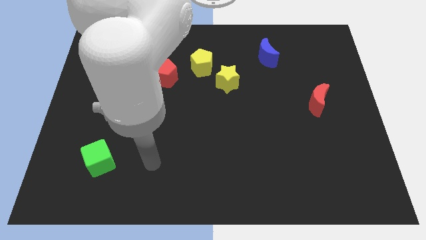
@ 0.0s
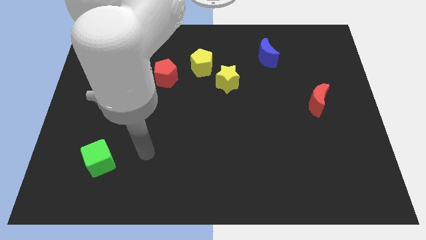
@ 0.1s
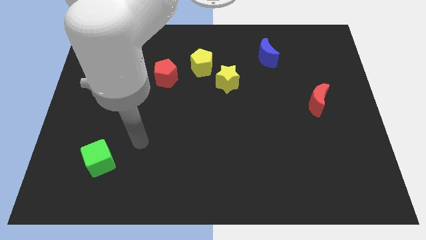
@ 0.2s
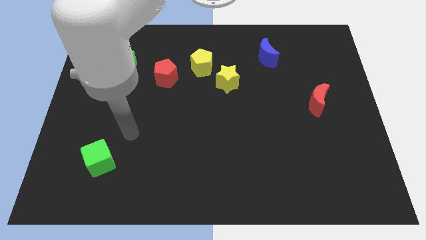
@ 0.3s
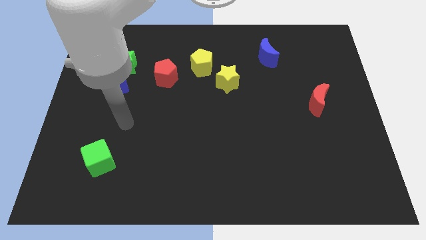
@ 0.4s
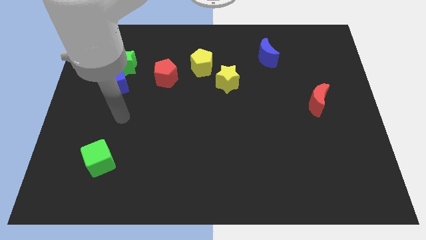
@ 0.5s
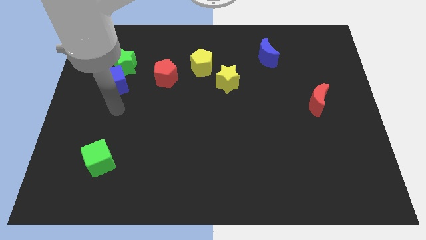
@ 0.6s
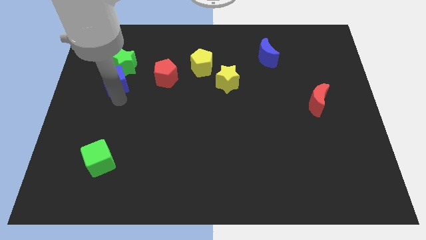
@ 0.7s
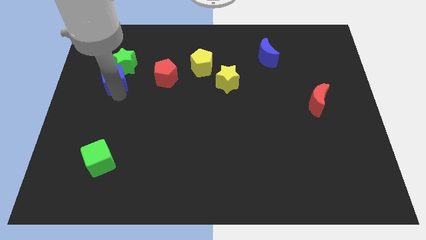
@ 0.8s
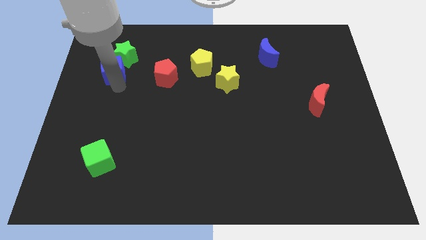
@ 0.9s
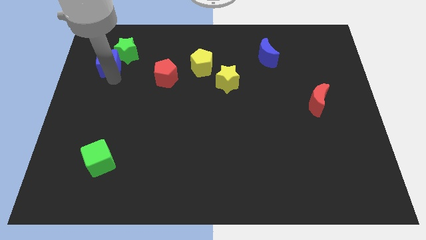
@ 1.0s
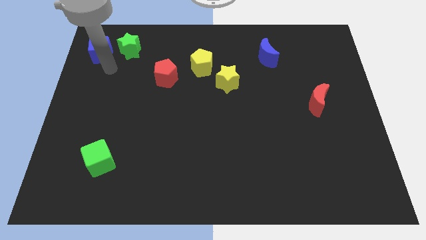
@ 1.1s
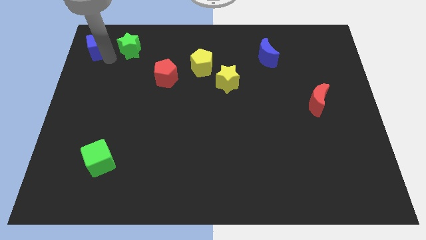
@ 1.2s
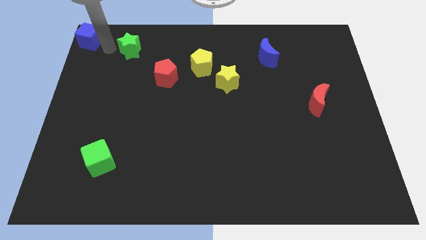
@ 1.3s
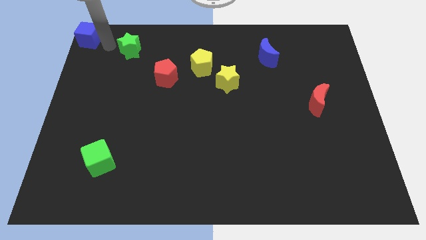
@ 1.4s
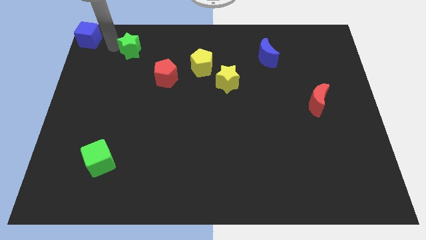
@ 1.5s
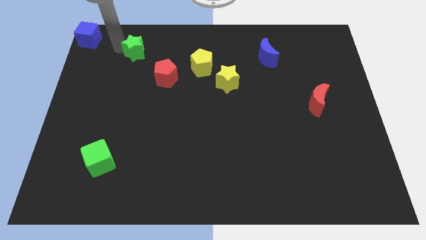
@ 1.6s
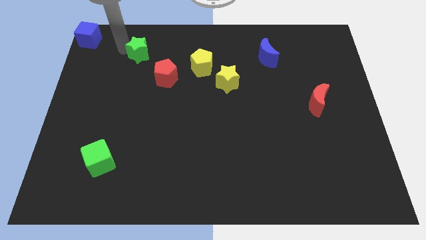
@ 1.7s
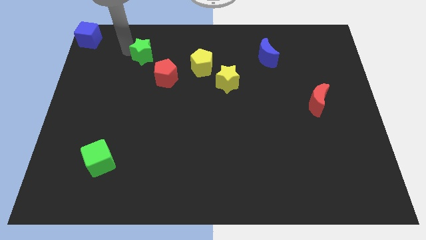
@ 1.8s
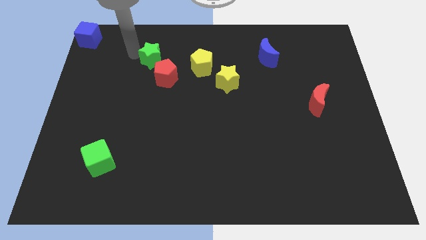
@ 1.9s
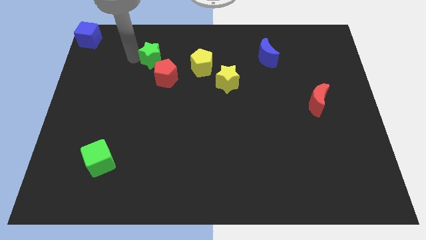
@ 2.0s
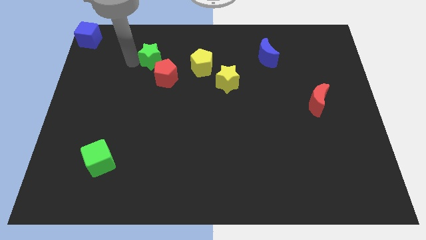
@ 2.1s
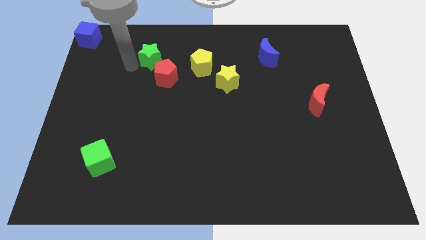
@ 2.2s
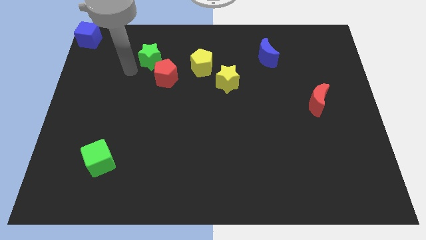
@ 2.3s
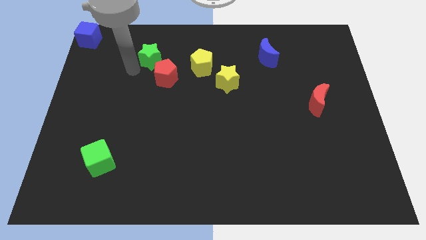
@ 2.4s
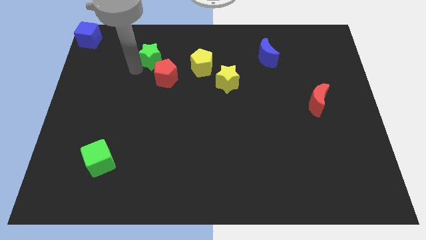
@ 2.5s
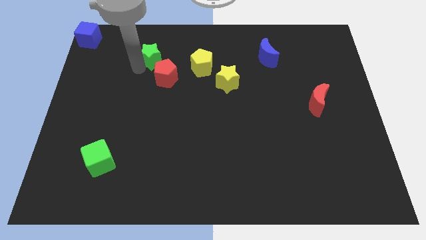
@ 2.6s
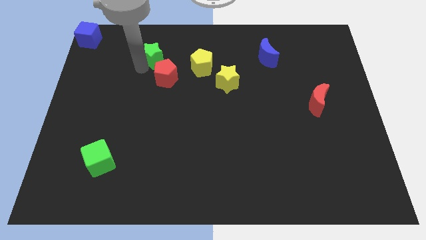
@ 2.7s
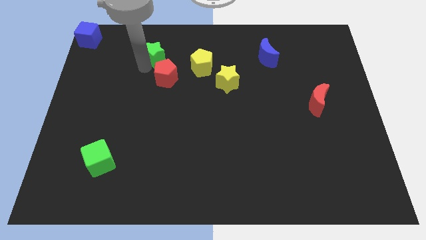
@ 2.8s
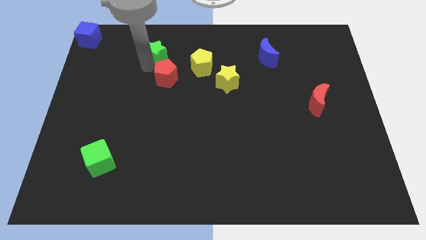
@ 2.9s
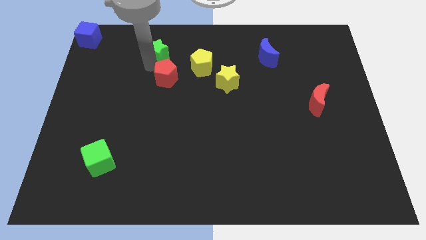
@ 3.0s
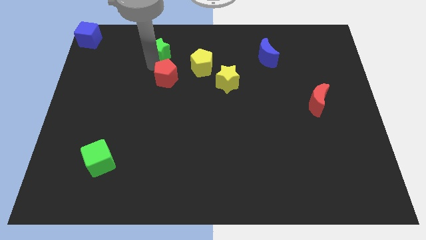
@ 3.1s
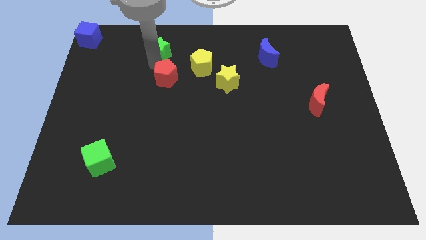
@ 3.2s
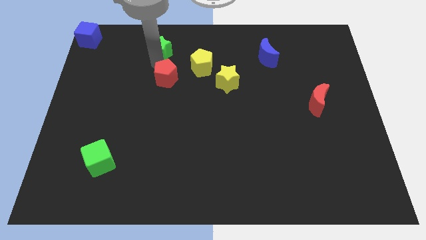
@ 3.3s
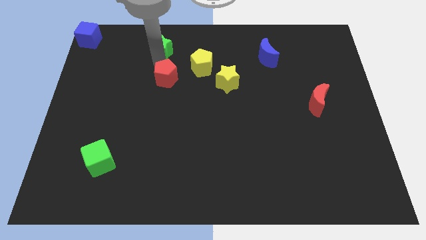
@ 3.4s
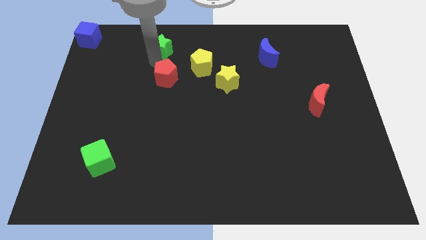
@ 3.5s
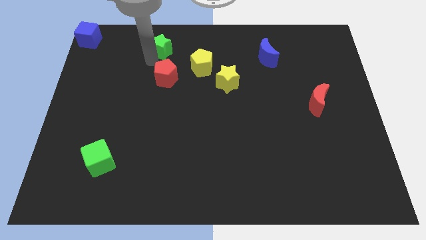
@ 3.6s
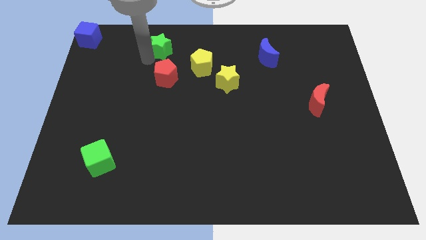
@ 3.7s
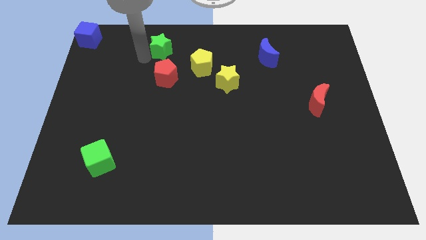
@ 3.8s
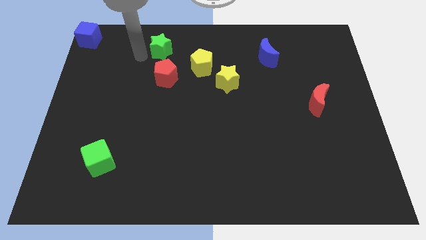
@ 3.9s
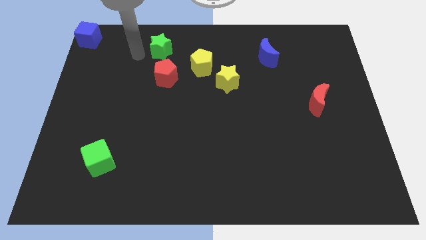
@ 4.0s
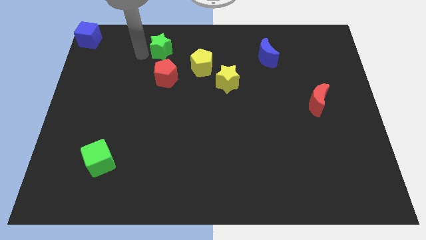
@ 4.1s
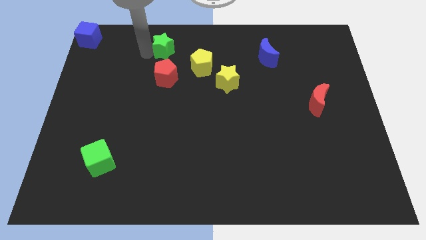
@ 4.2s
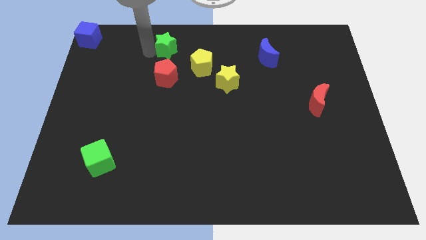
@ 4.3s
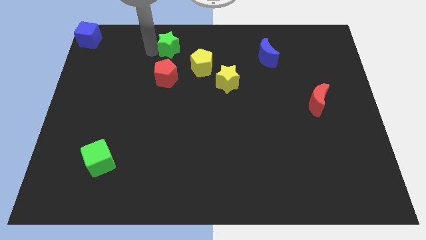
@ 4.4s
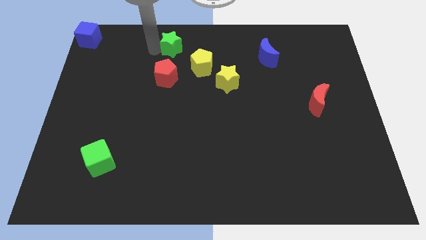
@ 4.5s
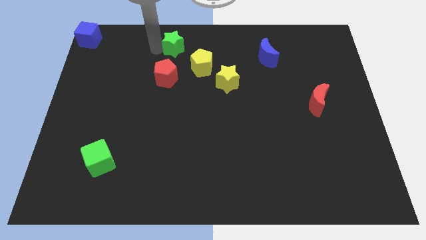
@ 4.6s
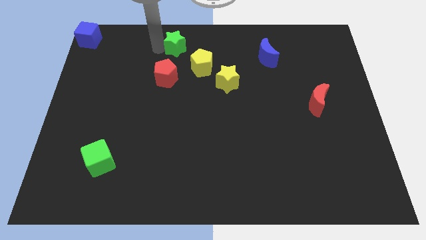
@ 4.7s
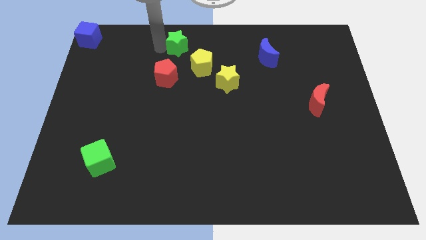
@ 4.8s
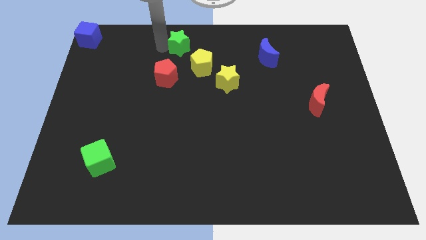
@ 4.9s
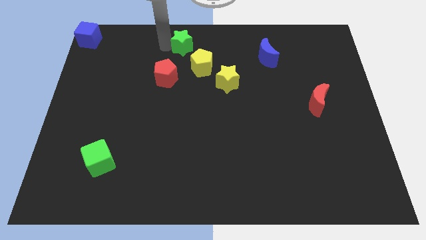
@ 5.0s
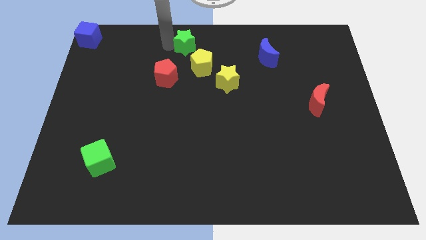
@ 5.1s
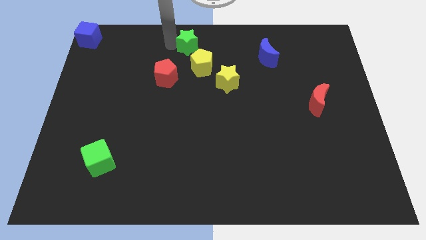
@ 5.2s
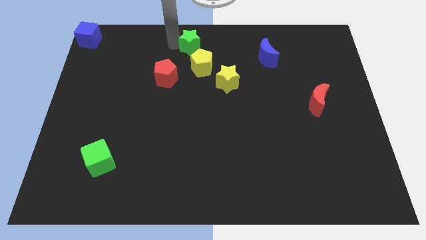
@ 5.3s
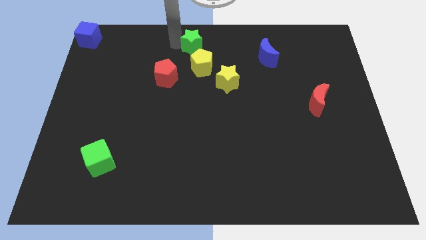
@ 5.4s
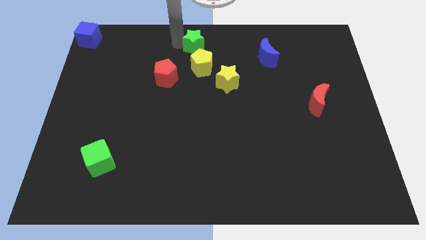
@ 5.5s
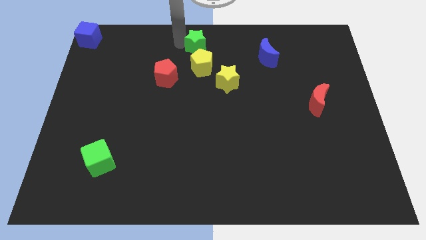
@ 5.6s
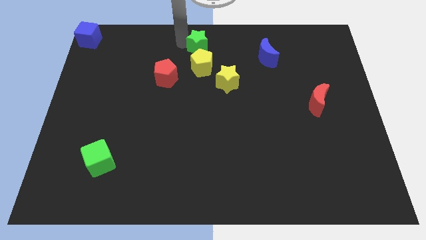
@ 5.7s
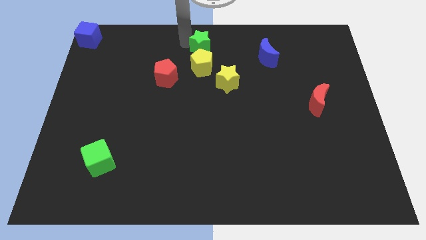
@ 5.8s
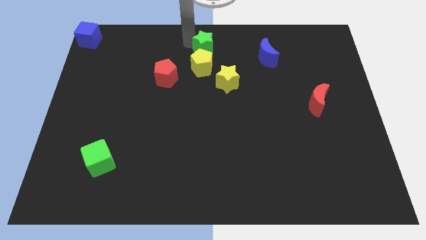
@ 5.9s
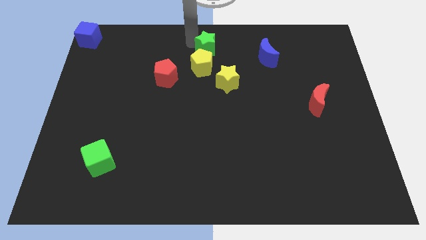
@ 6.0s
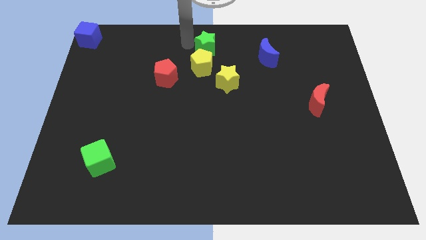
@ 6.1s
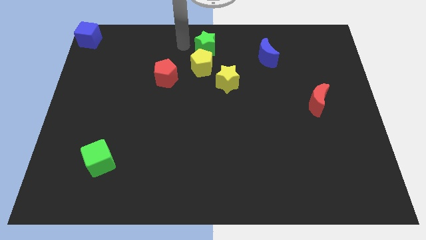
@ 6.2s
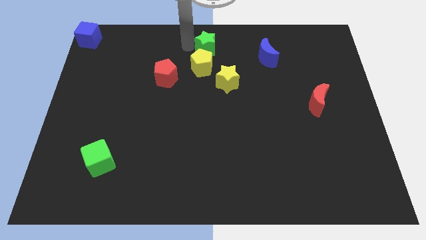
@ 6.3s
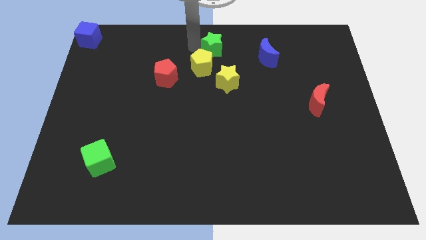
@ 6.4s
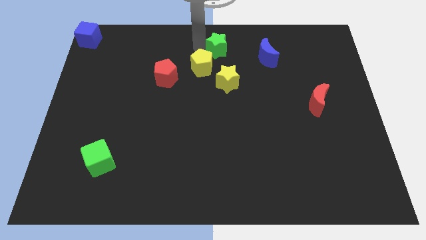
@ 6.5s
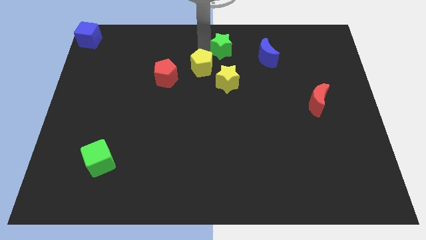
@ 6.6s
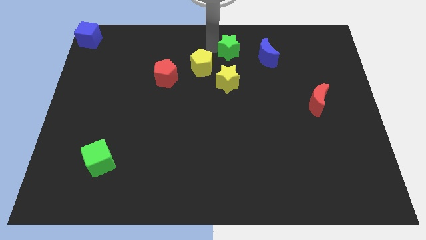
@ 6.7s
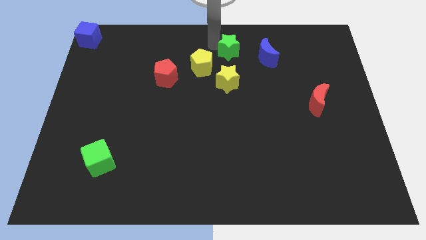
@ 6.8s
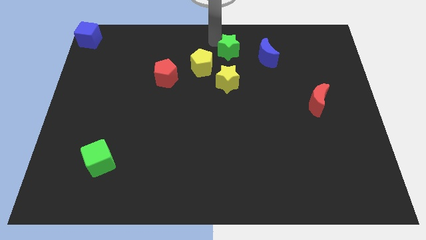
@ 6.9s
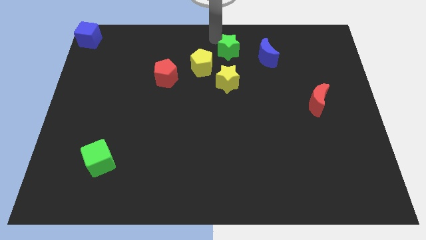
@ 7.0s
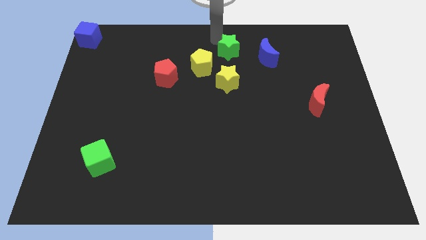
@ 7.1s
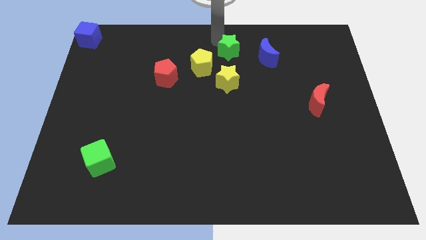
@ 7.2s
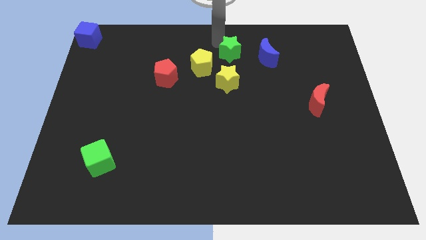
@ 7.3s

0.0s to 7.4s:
put the green star to the right of the yellow pentagon

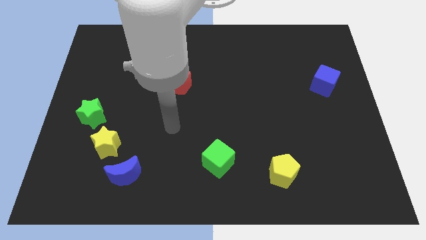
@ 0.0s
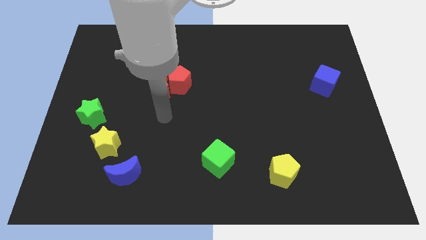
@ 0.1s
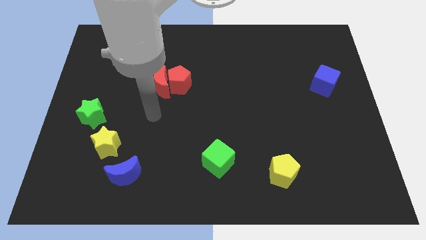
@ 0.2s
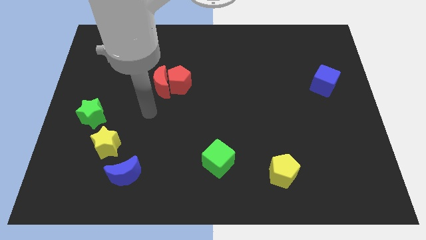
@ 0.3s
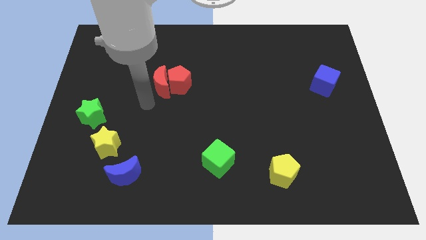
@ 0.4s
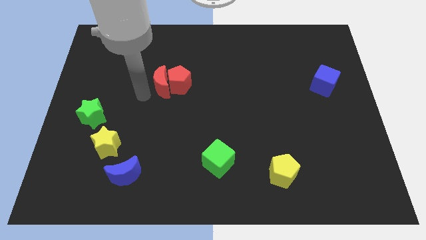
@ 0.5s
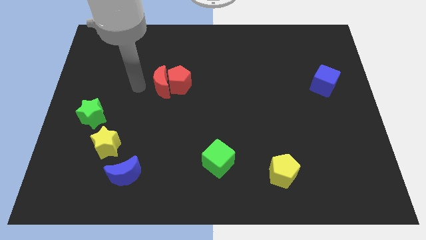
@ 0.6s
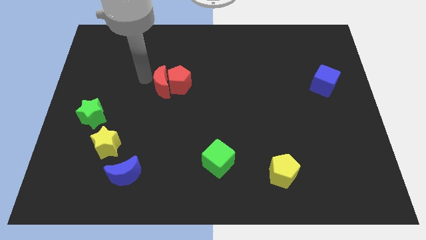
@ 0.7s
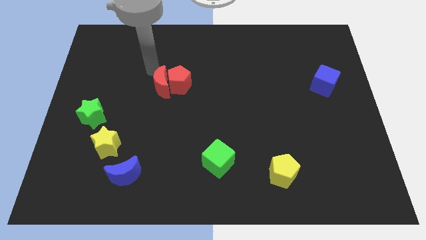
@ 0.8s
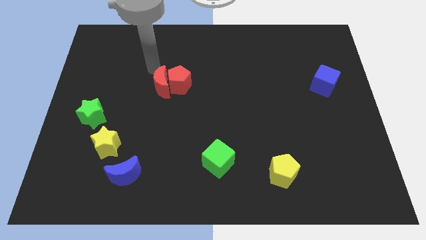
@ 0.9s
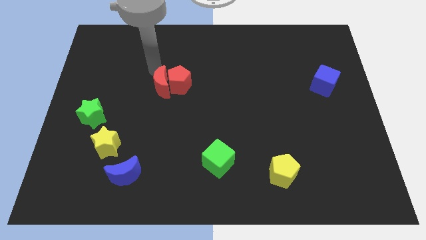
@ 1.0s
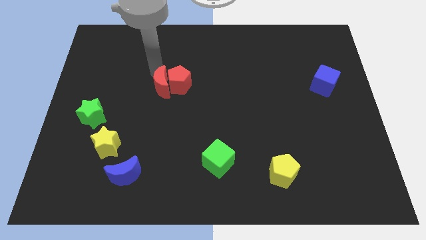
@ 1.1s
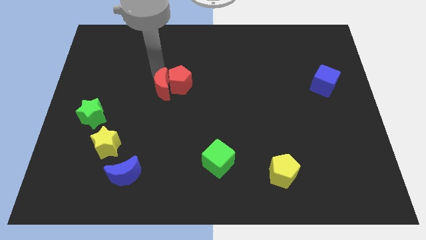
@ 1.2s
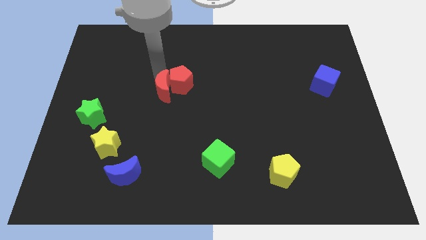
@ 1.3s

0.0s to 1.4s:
slide the red moon to the bottom side of the red pentagon
